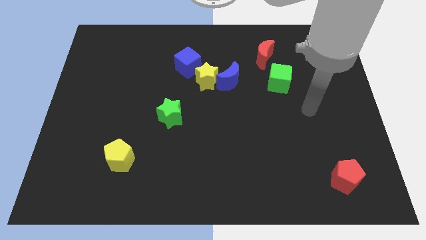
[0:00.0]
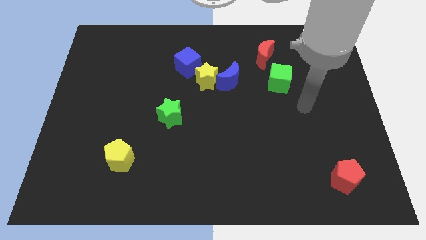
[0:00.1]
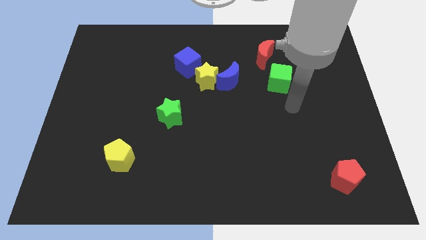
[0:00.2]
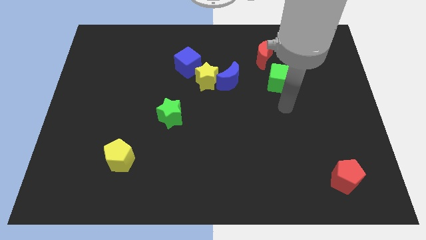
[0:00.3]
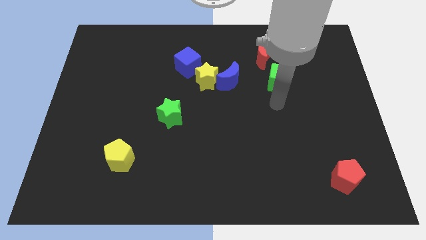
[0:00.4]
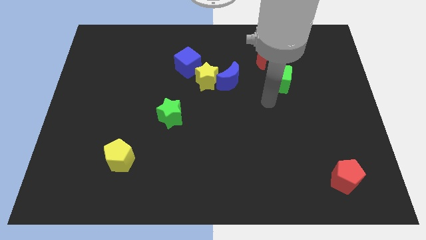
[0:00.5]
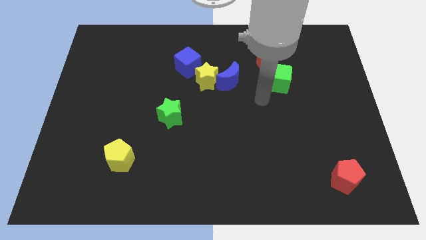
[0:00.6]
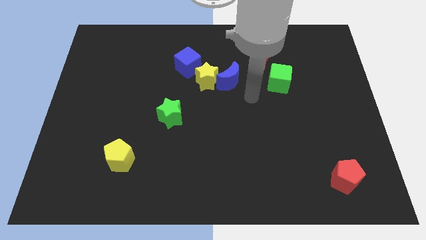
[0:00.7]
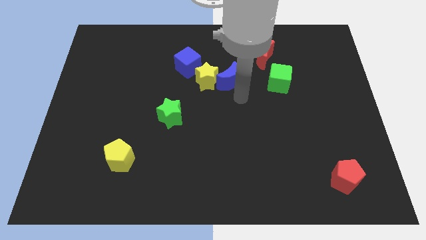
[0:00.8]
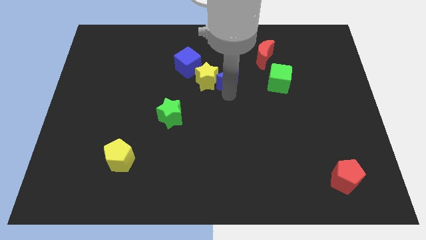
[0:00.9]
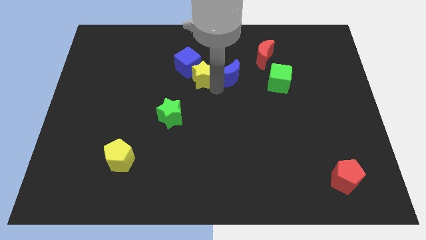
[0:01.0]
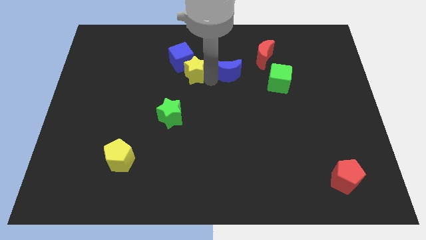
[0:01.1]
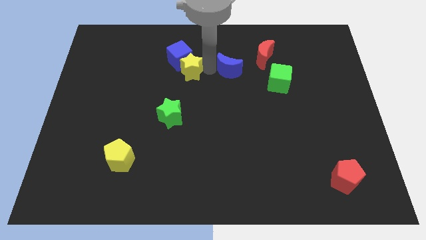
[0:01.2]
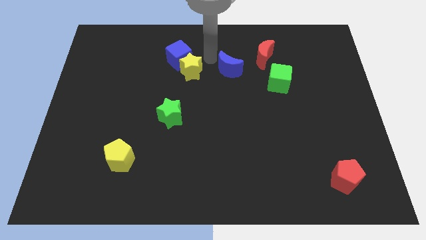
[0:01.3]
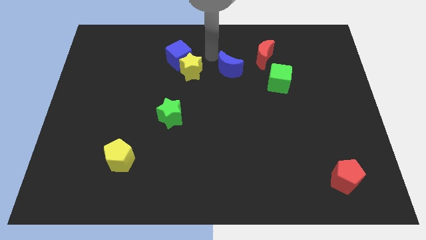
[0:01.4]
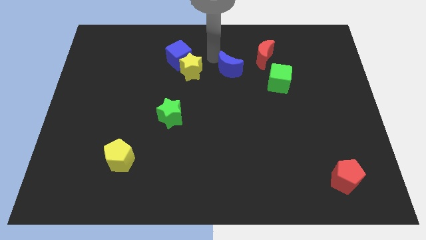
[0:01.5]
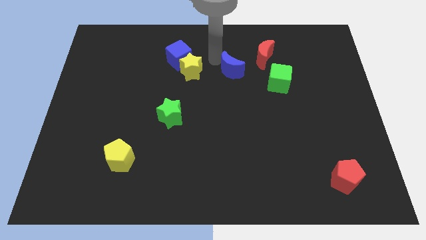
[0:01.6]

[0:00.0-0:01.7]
separate the blue moon from the yellow star

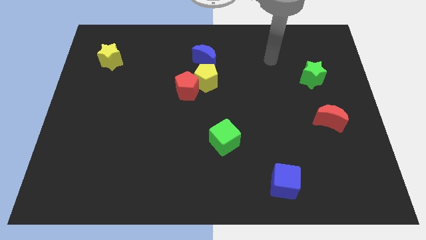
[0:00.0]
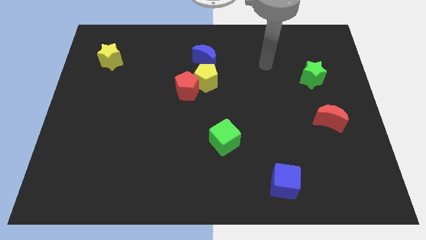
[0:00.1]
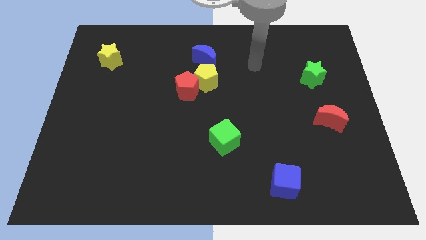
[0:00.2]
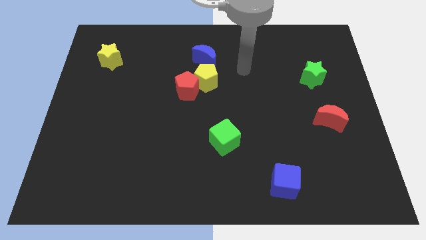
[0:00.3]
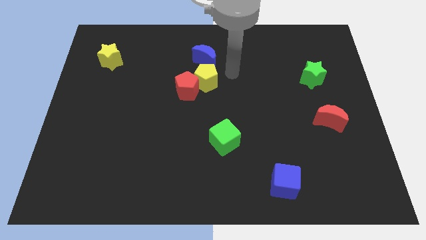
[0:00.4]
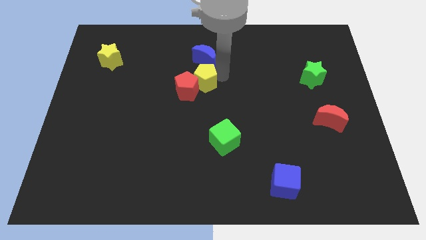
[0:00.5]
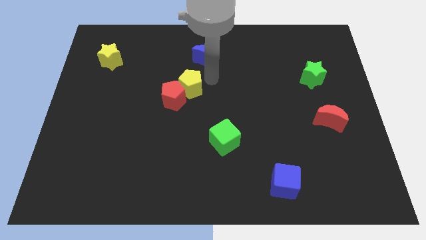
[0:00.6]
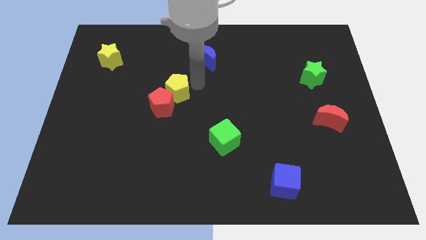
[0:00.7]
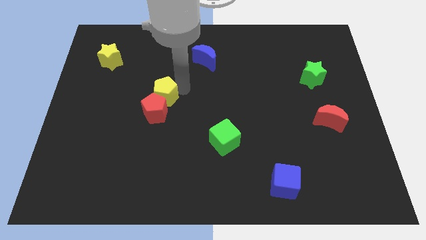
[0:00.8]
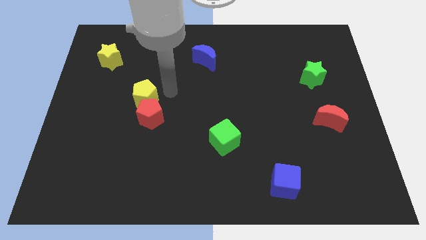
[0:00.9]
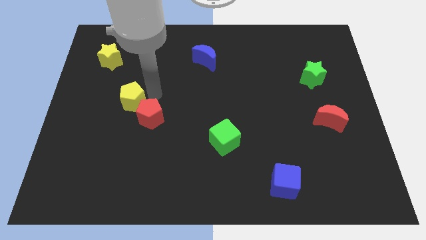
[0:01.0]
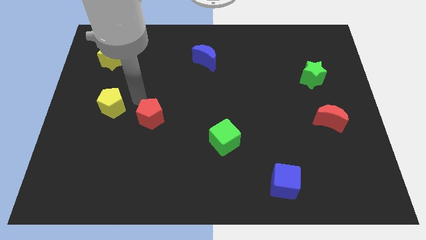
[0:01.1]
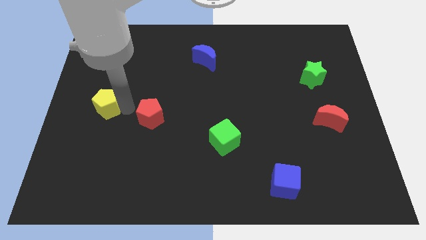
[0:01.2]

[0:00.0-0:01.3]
move the red pentagon away from the yellow pentagon

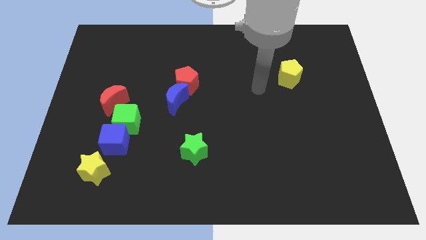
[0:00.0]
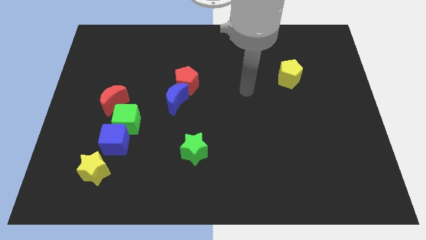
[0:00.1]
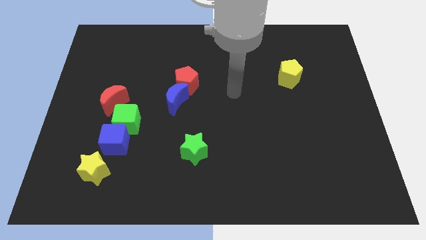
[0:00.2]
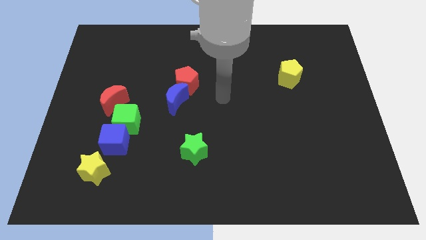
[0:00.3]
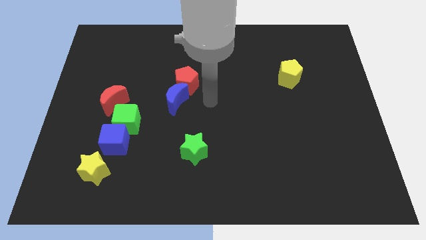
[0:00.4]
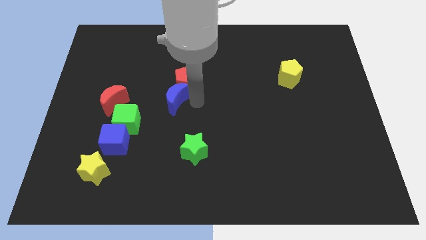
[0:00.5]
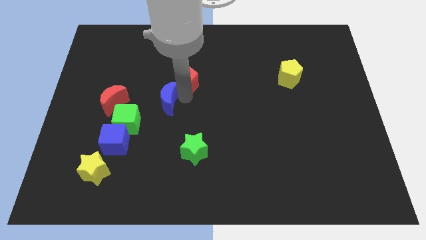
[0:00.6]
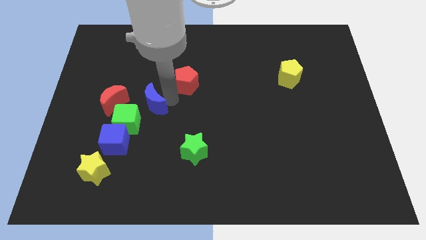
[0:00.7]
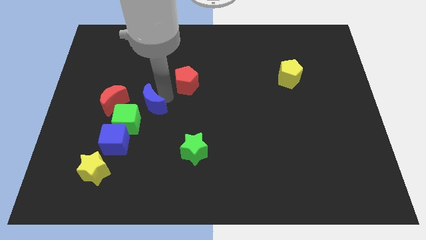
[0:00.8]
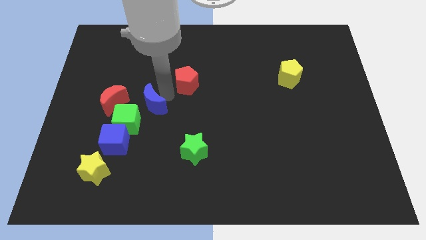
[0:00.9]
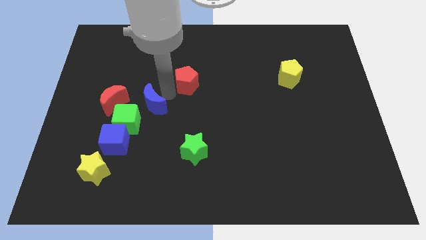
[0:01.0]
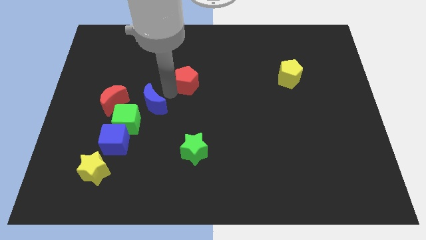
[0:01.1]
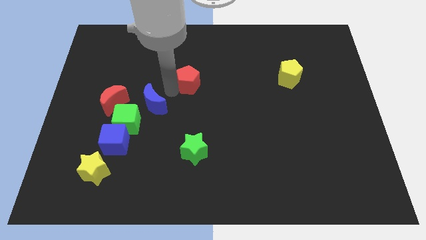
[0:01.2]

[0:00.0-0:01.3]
pull the red pentagon apart from the blue moon

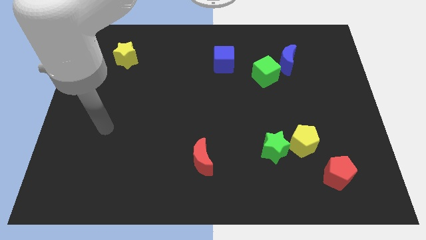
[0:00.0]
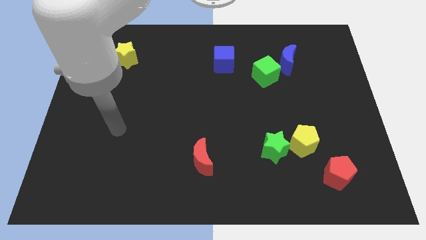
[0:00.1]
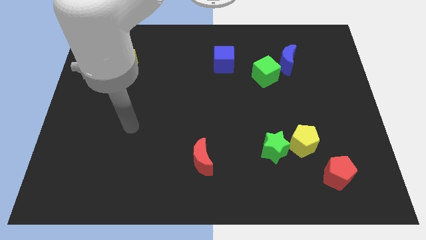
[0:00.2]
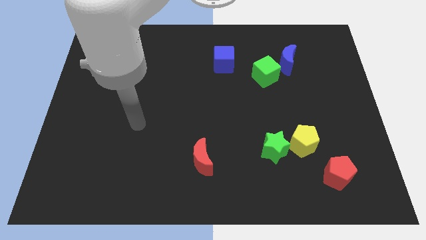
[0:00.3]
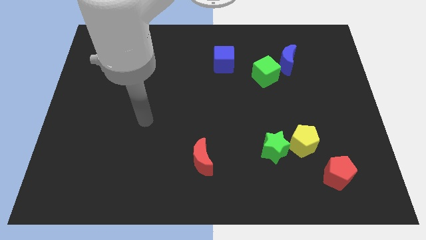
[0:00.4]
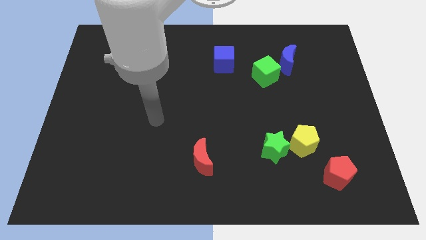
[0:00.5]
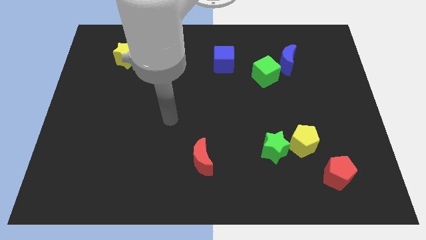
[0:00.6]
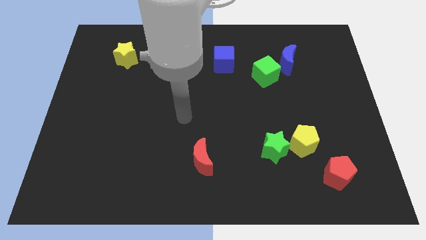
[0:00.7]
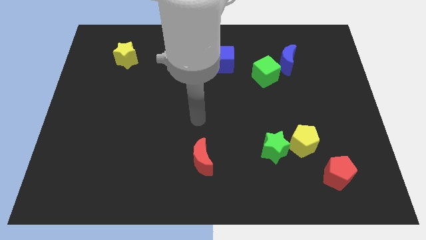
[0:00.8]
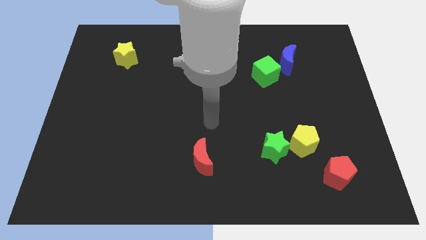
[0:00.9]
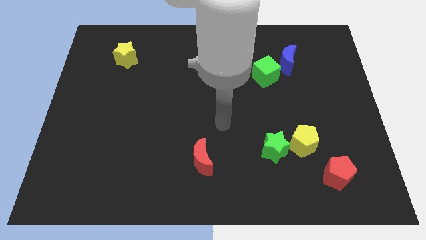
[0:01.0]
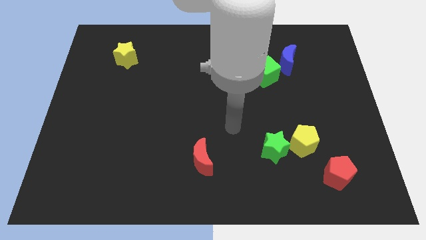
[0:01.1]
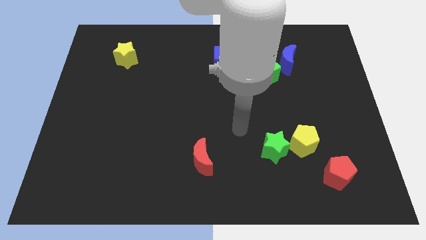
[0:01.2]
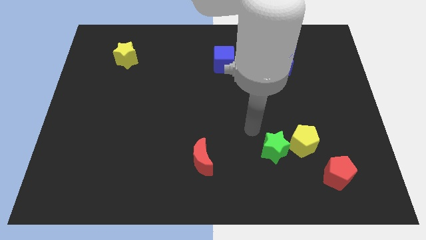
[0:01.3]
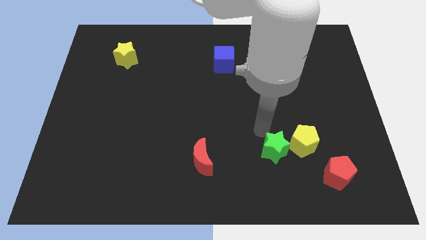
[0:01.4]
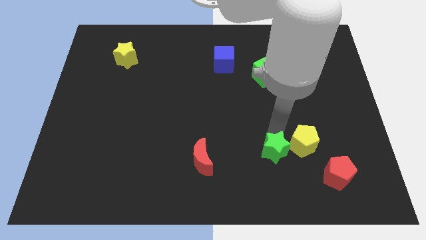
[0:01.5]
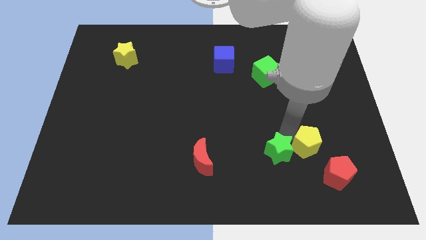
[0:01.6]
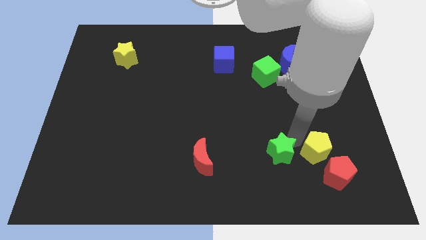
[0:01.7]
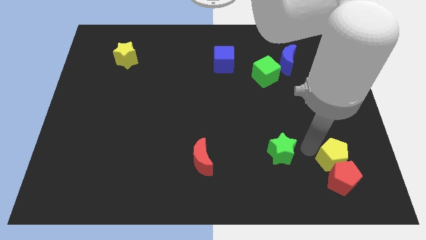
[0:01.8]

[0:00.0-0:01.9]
move the green star away from the yellow pentagon

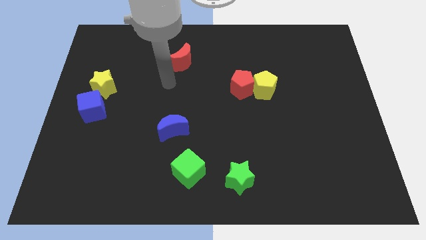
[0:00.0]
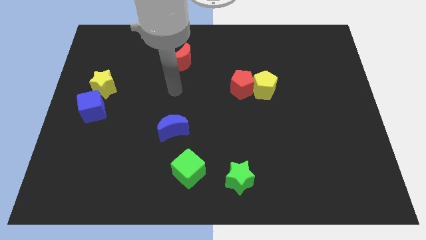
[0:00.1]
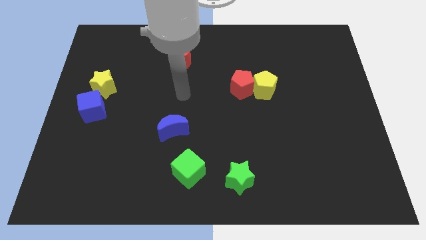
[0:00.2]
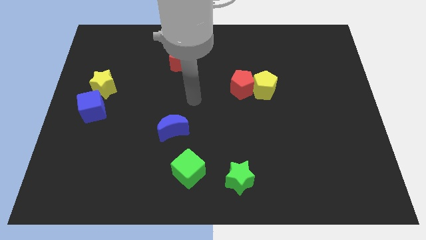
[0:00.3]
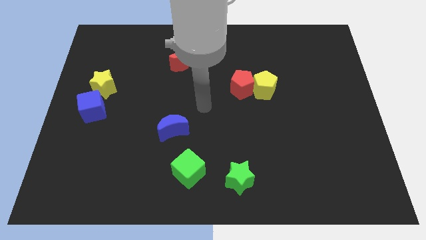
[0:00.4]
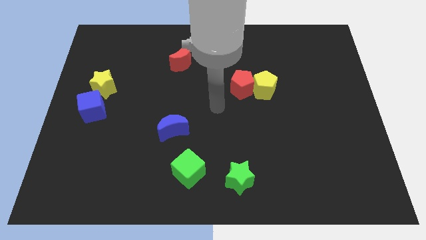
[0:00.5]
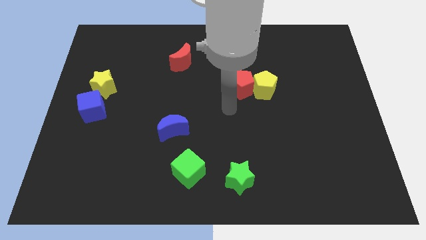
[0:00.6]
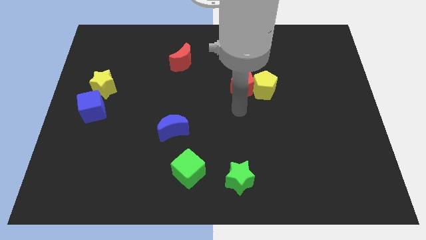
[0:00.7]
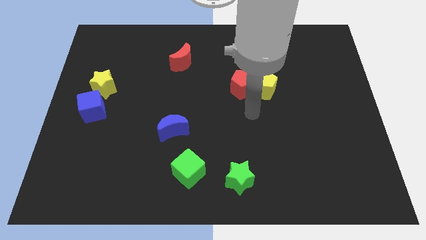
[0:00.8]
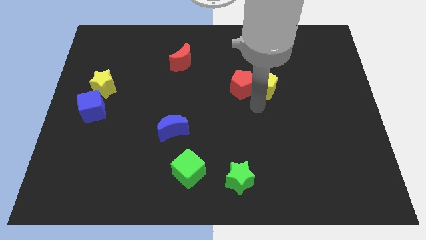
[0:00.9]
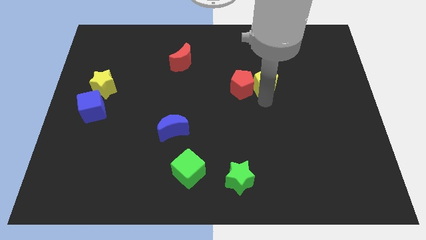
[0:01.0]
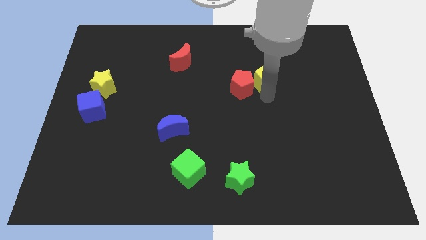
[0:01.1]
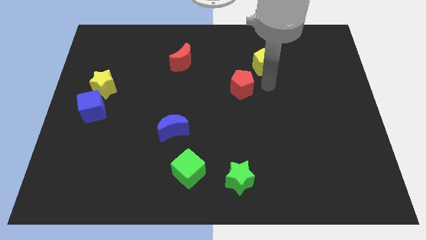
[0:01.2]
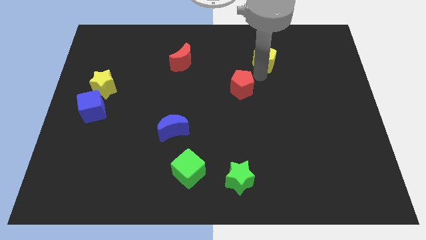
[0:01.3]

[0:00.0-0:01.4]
pull the red pentagon apart from the yellow pentagon

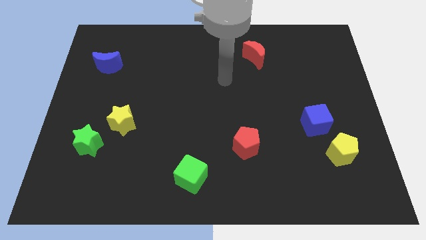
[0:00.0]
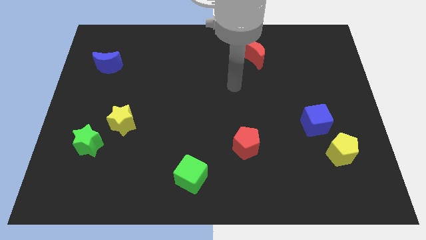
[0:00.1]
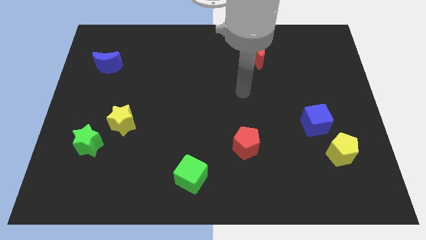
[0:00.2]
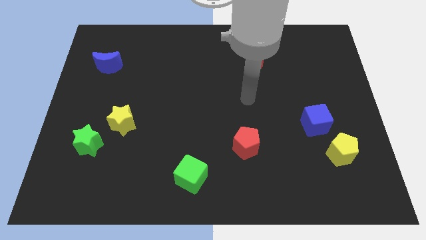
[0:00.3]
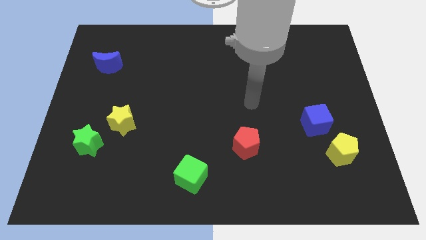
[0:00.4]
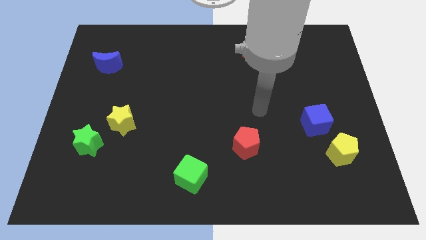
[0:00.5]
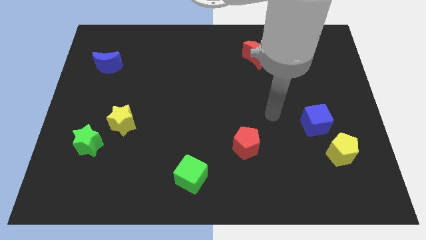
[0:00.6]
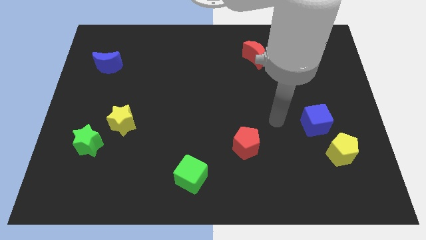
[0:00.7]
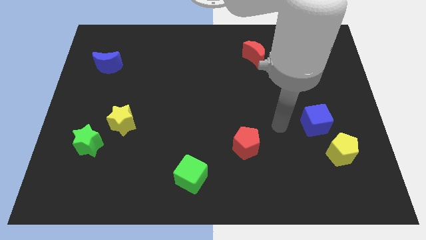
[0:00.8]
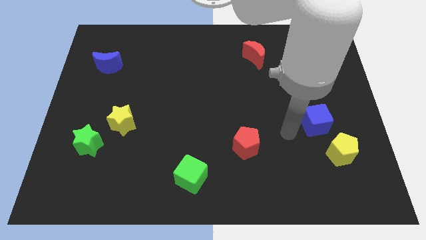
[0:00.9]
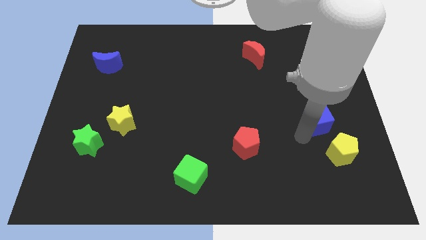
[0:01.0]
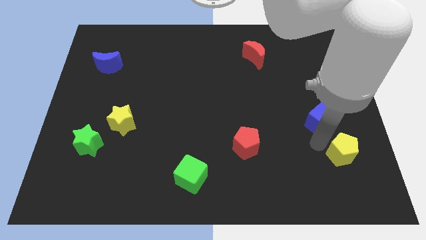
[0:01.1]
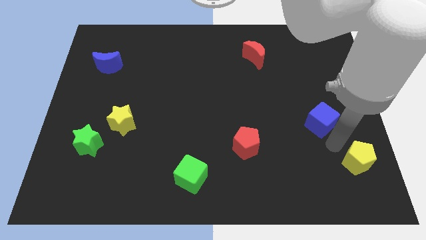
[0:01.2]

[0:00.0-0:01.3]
move the blue cube away from the yellow pentagon

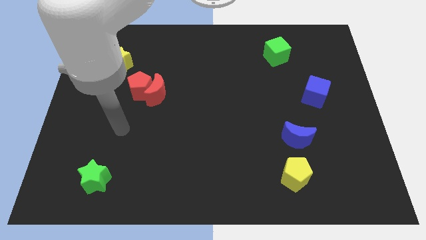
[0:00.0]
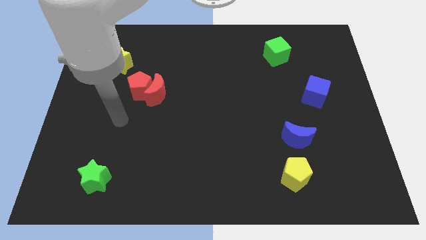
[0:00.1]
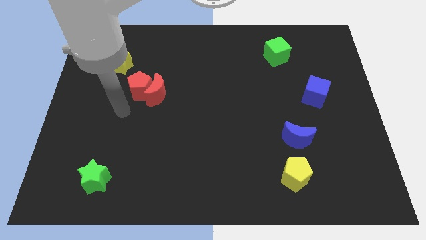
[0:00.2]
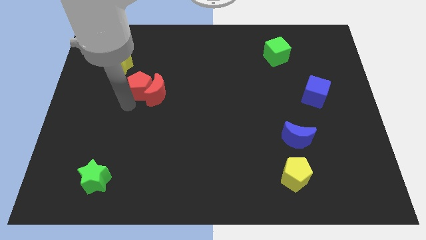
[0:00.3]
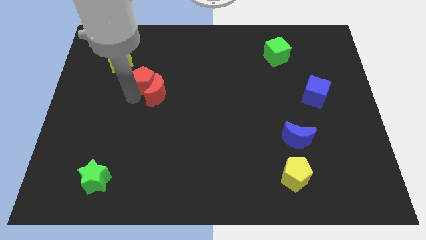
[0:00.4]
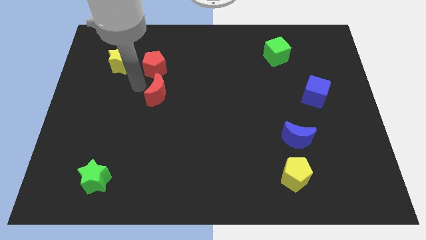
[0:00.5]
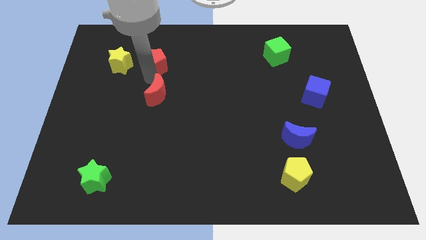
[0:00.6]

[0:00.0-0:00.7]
pull the red moon apart from the red pentagon
